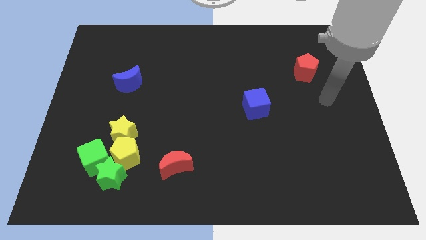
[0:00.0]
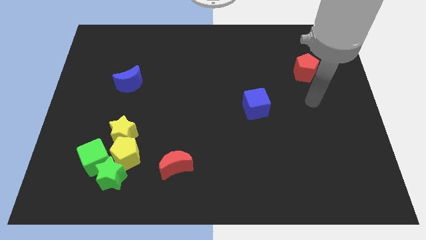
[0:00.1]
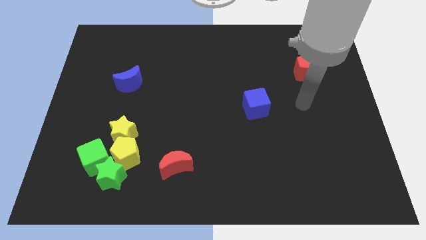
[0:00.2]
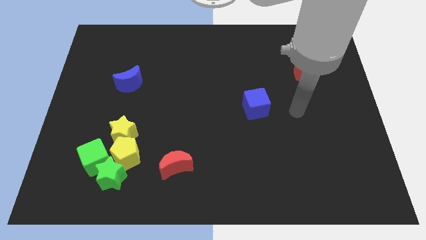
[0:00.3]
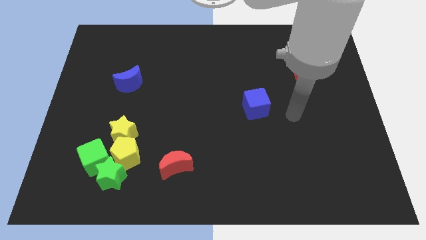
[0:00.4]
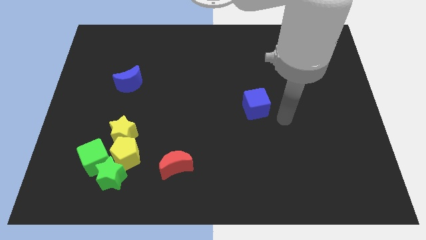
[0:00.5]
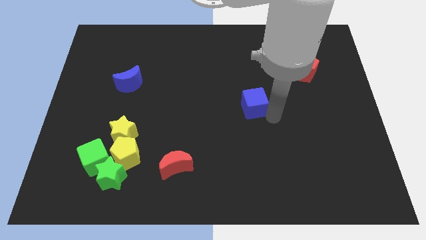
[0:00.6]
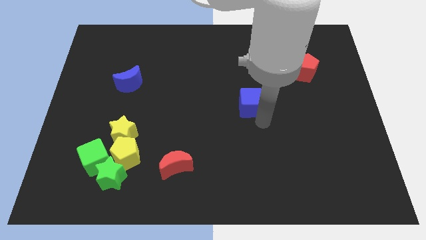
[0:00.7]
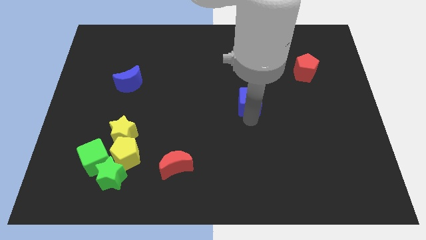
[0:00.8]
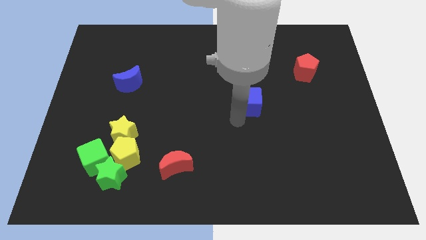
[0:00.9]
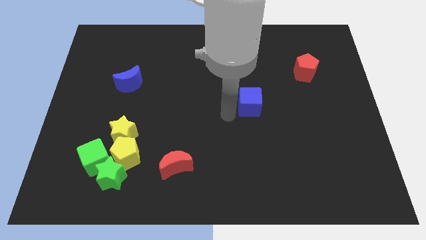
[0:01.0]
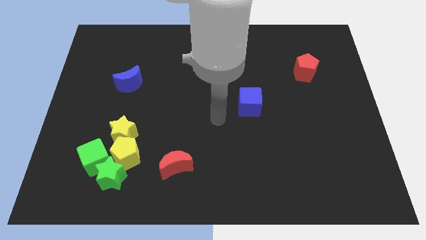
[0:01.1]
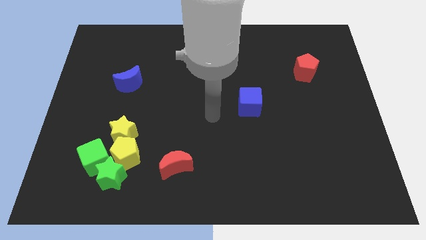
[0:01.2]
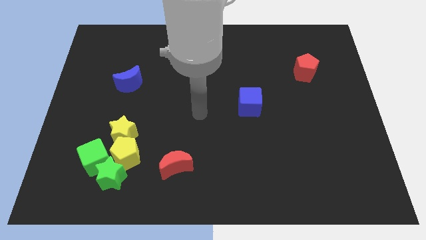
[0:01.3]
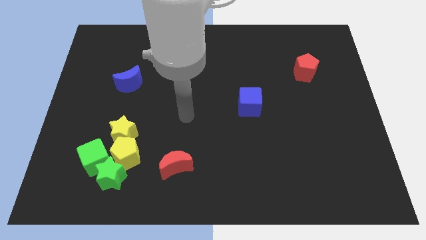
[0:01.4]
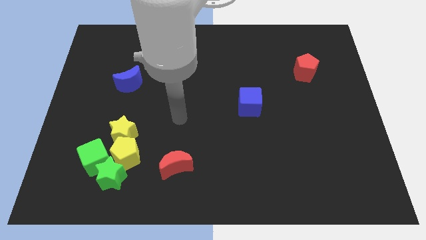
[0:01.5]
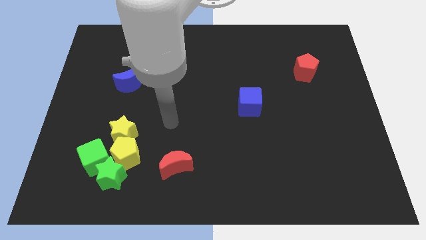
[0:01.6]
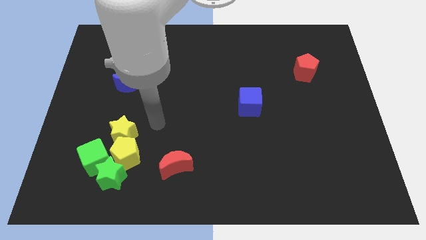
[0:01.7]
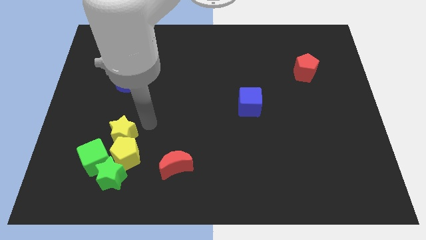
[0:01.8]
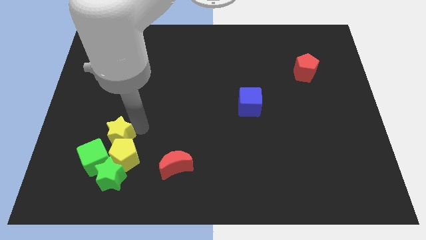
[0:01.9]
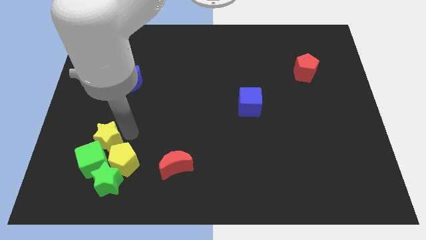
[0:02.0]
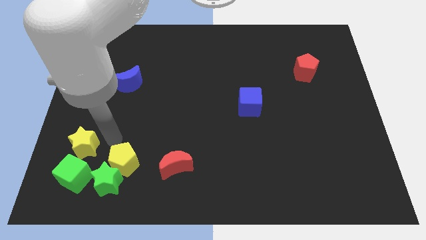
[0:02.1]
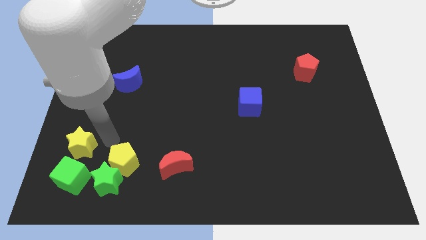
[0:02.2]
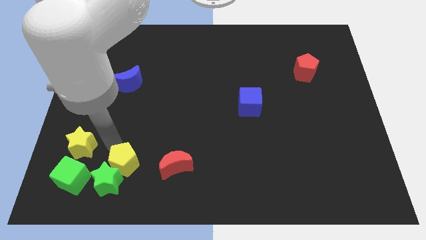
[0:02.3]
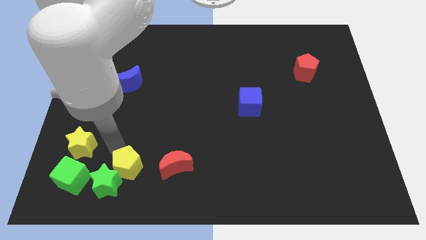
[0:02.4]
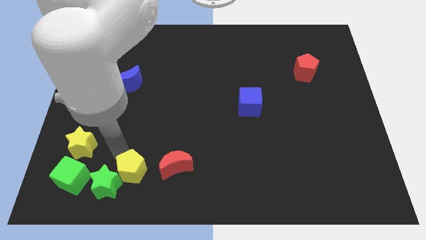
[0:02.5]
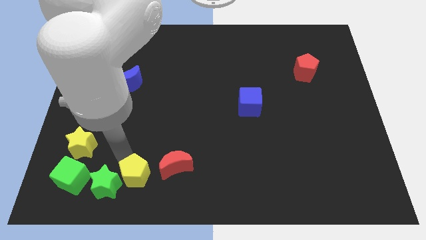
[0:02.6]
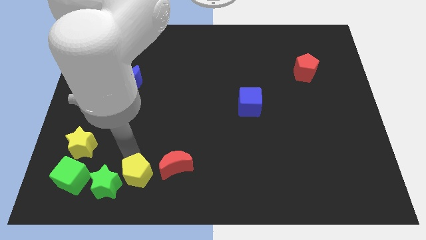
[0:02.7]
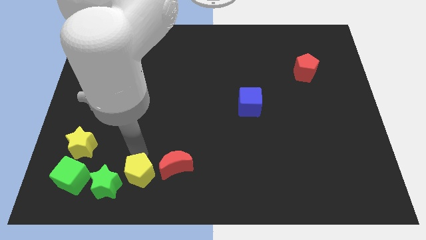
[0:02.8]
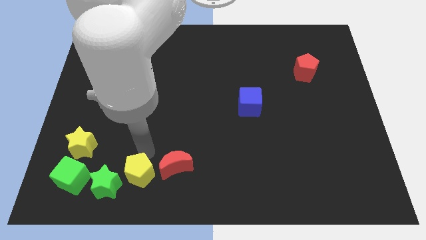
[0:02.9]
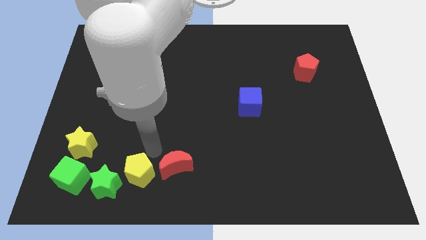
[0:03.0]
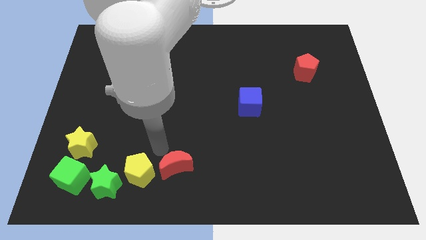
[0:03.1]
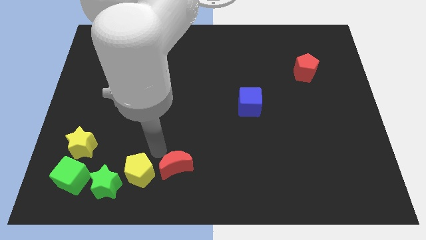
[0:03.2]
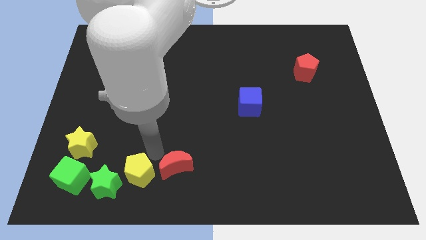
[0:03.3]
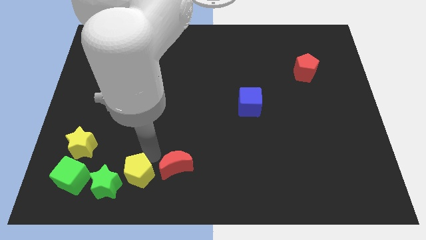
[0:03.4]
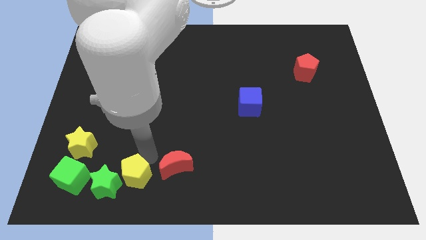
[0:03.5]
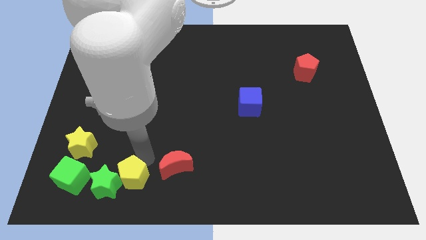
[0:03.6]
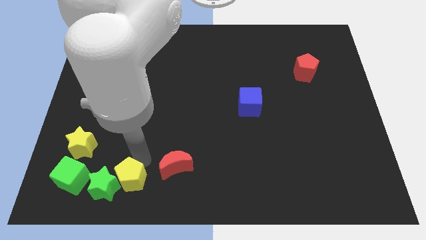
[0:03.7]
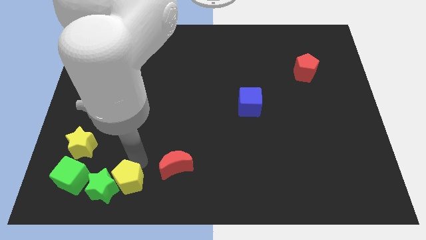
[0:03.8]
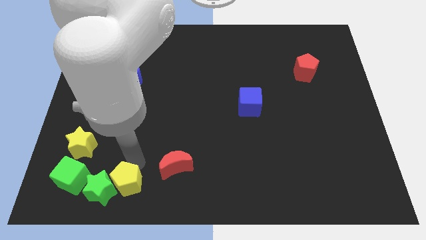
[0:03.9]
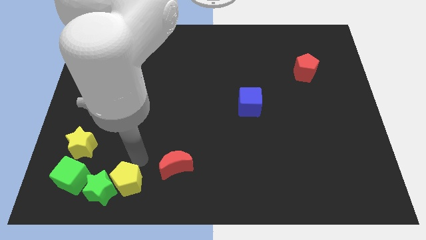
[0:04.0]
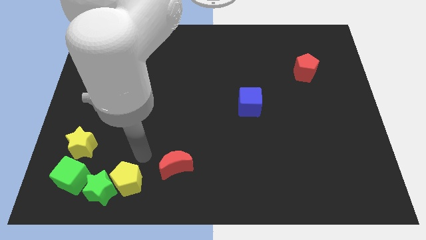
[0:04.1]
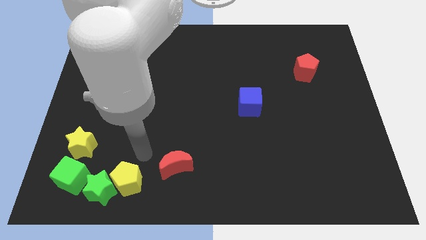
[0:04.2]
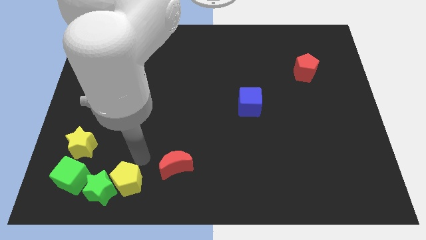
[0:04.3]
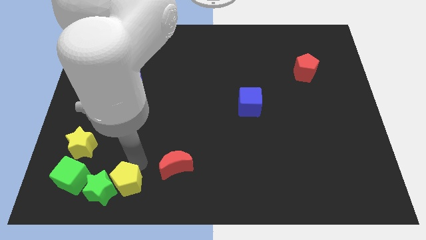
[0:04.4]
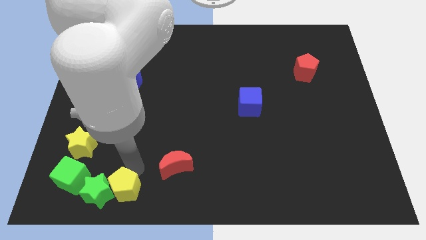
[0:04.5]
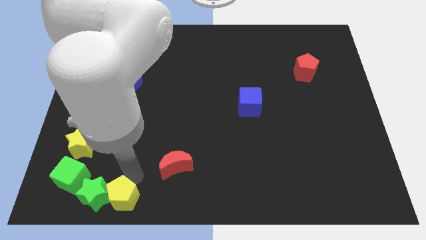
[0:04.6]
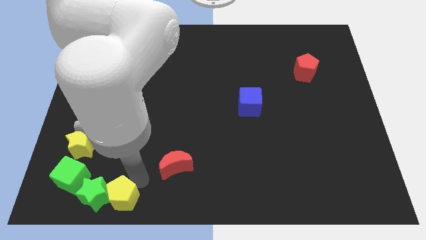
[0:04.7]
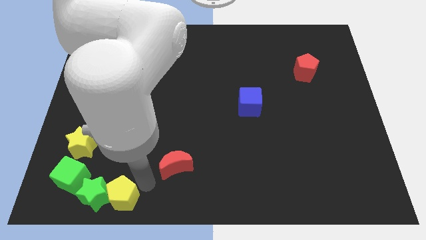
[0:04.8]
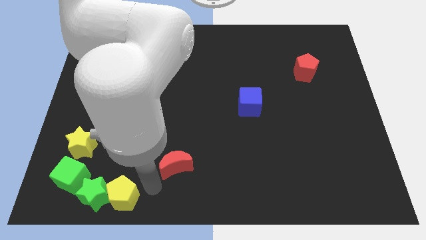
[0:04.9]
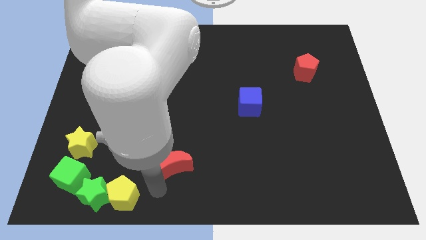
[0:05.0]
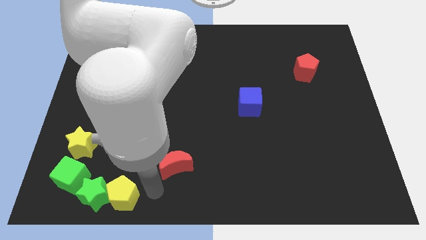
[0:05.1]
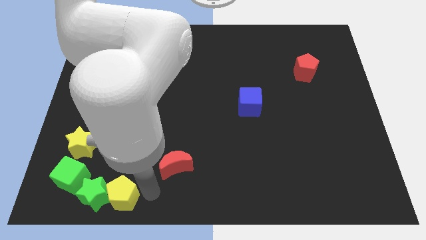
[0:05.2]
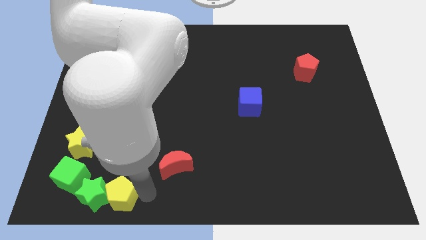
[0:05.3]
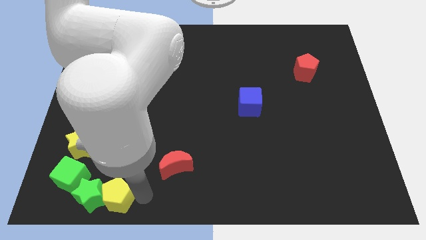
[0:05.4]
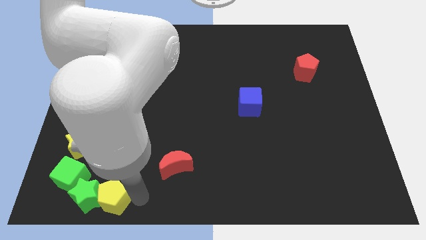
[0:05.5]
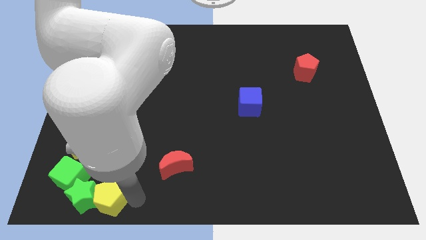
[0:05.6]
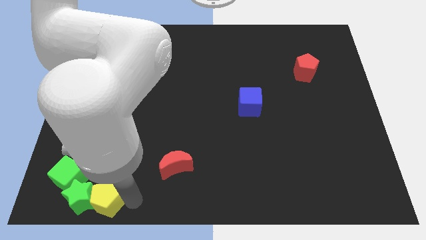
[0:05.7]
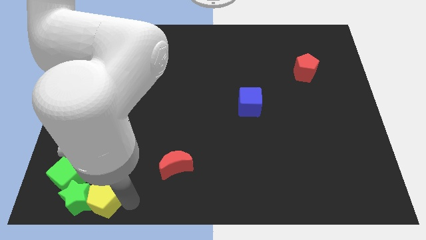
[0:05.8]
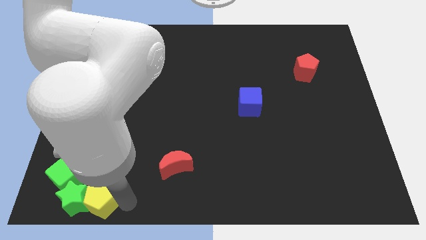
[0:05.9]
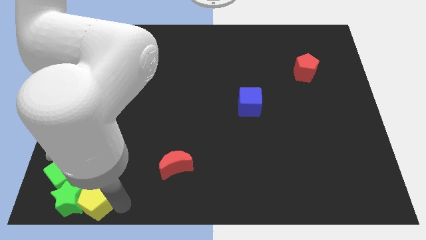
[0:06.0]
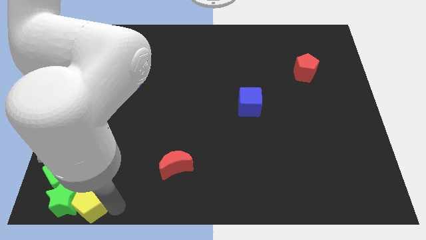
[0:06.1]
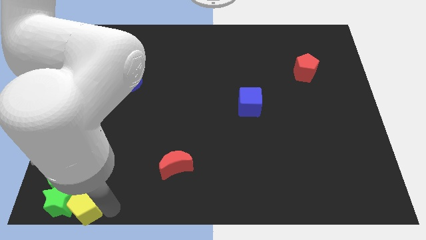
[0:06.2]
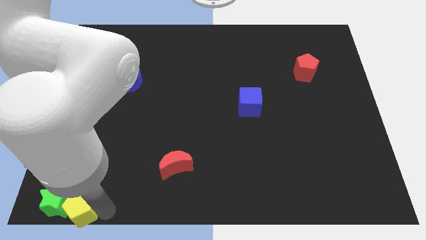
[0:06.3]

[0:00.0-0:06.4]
slide the yellow pentagon to the bottom left of the board
